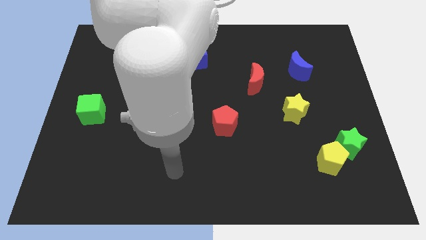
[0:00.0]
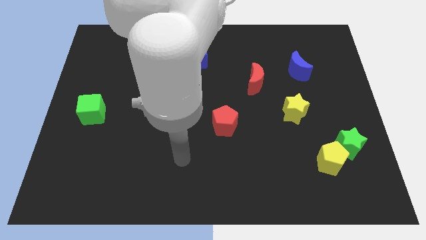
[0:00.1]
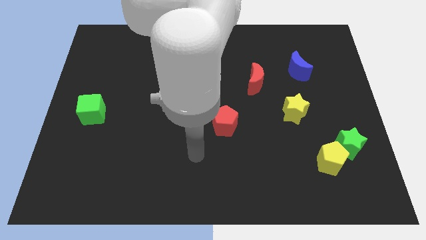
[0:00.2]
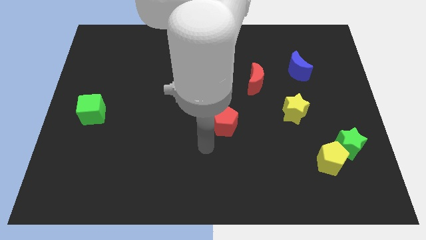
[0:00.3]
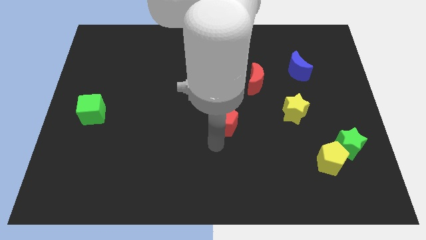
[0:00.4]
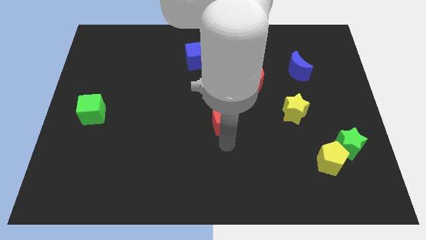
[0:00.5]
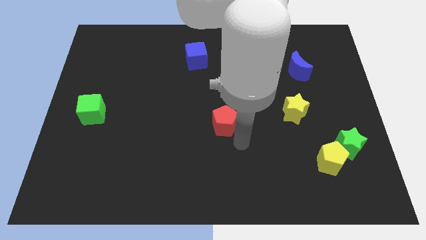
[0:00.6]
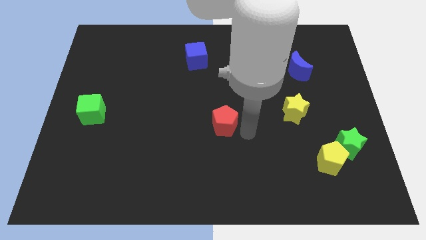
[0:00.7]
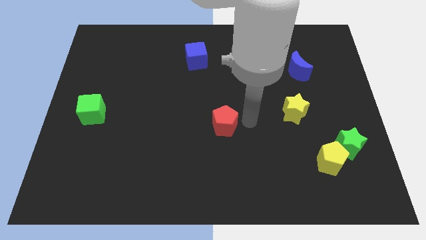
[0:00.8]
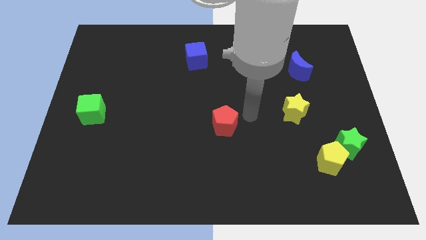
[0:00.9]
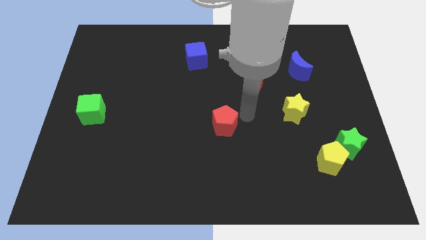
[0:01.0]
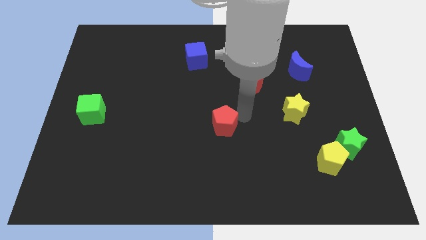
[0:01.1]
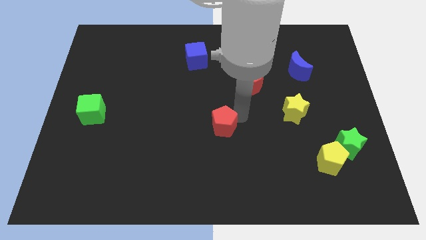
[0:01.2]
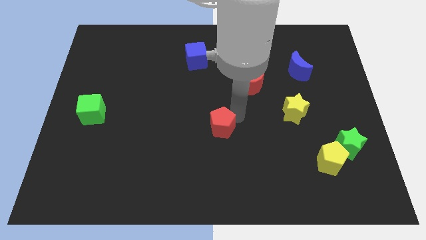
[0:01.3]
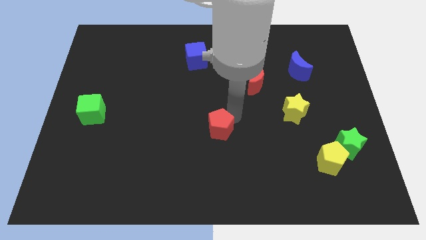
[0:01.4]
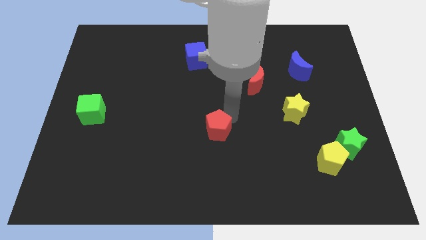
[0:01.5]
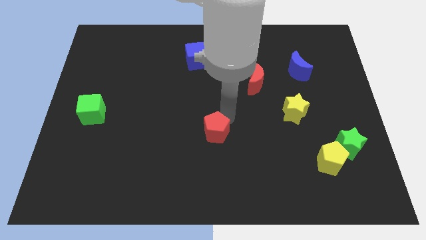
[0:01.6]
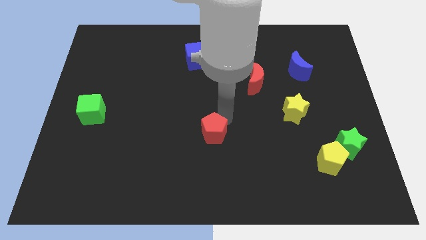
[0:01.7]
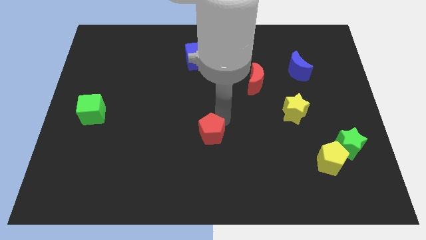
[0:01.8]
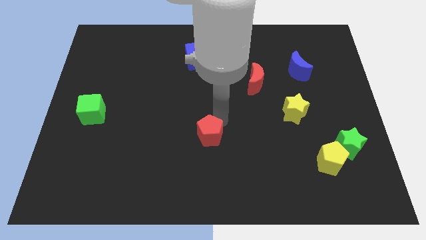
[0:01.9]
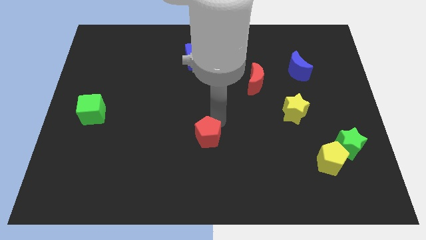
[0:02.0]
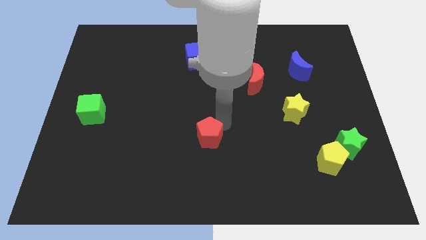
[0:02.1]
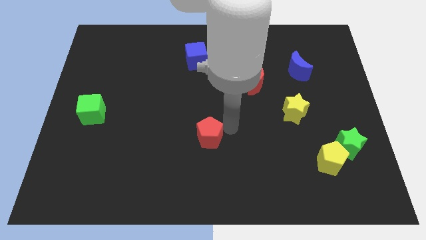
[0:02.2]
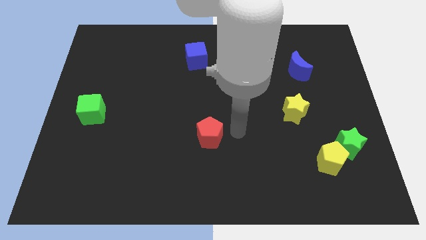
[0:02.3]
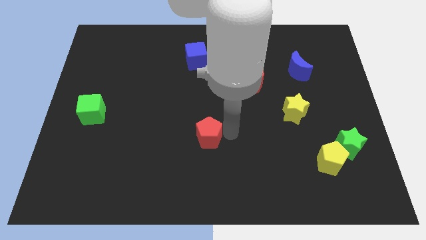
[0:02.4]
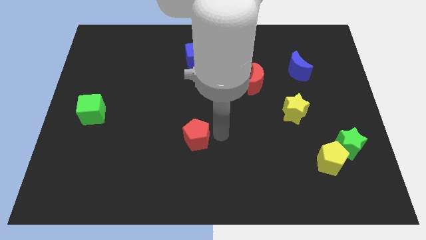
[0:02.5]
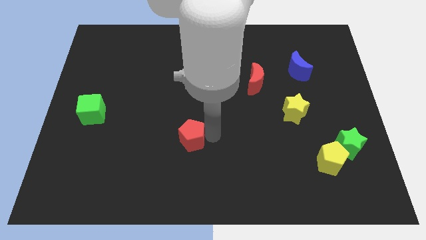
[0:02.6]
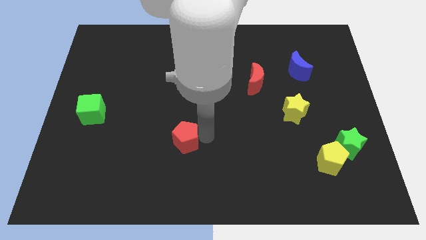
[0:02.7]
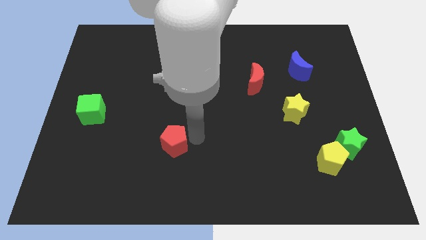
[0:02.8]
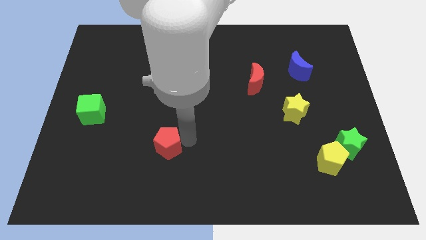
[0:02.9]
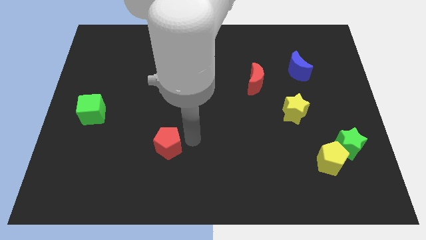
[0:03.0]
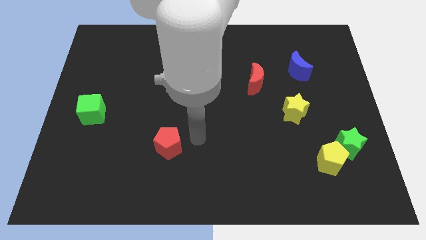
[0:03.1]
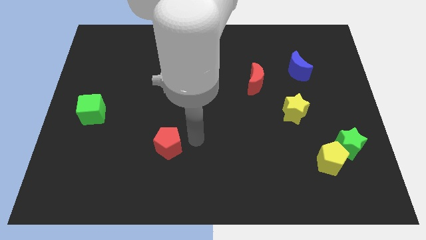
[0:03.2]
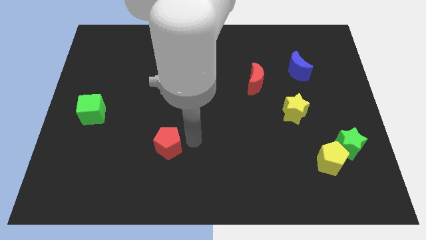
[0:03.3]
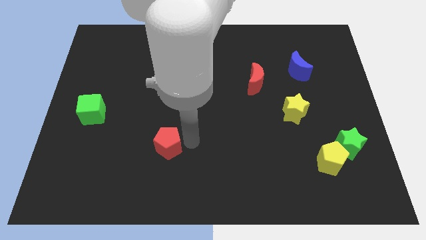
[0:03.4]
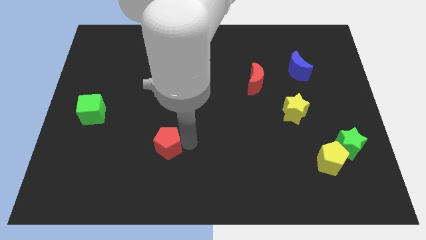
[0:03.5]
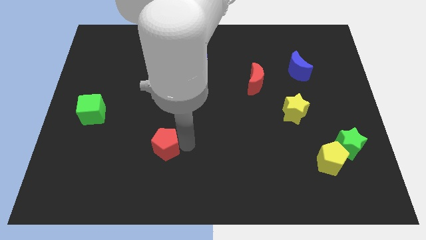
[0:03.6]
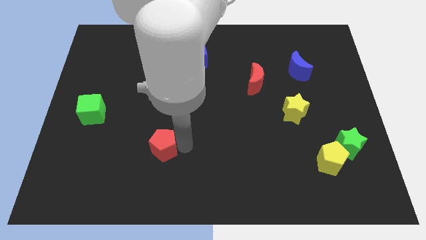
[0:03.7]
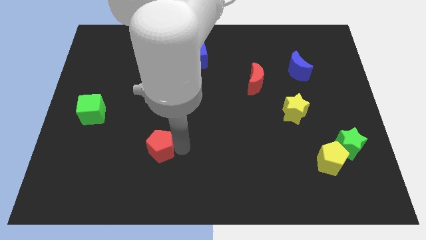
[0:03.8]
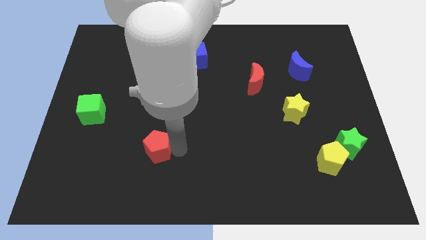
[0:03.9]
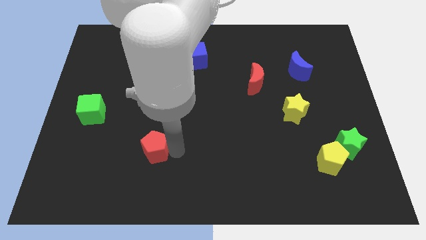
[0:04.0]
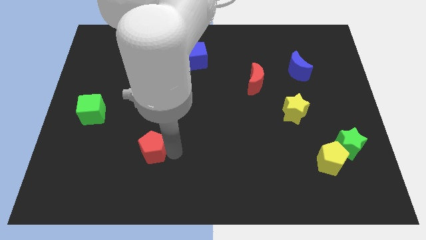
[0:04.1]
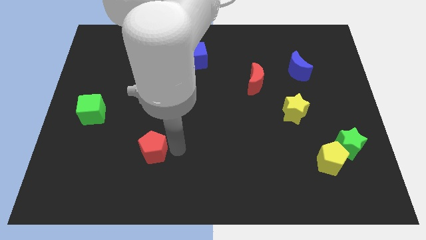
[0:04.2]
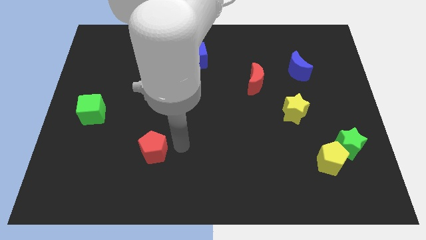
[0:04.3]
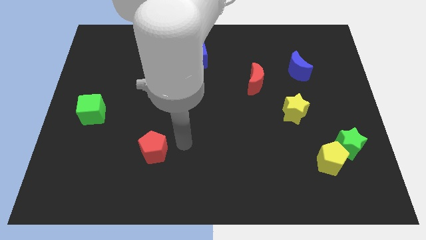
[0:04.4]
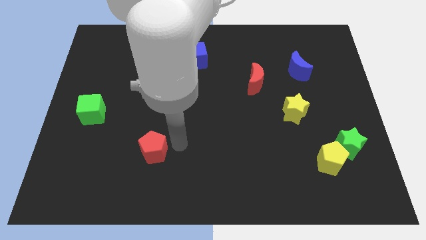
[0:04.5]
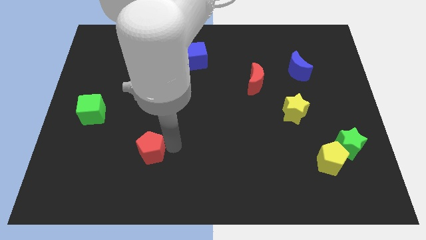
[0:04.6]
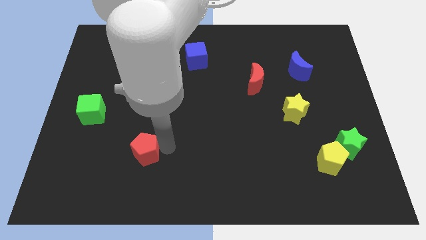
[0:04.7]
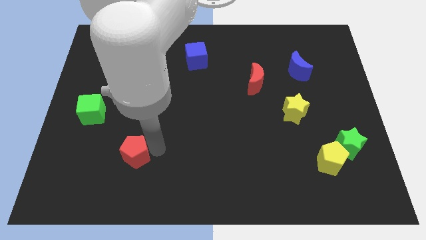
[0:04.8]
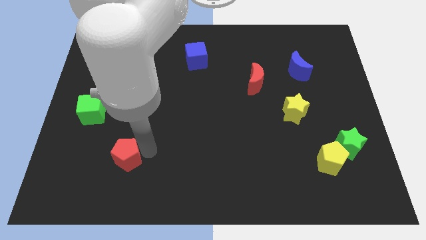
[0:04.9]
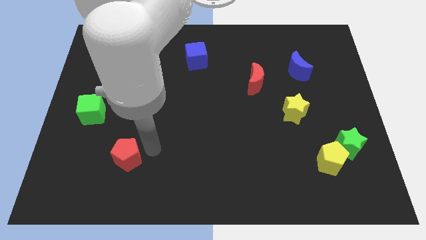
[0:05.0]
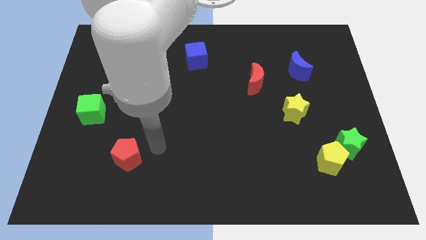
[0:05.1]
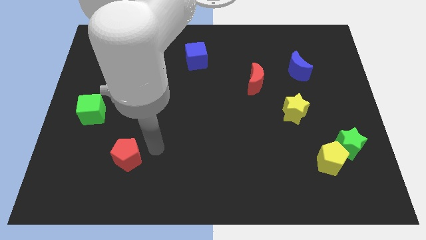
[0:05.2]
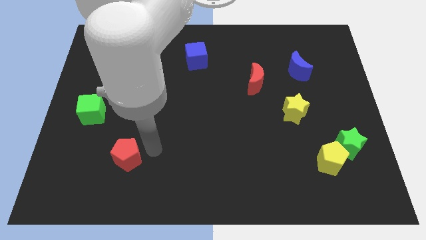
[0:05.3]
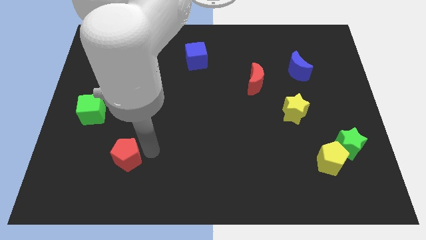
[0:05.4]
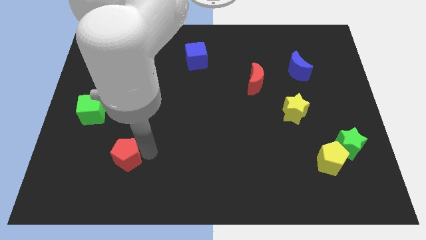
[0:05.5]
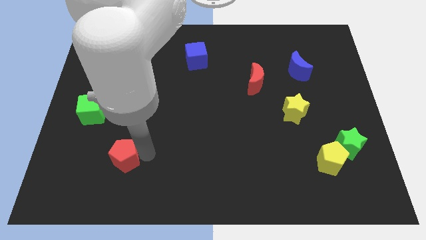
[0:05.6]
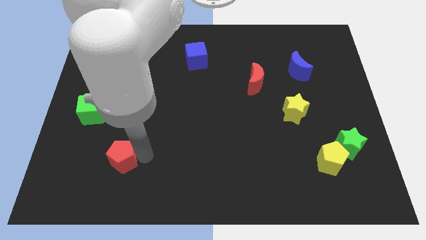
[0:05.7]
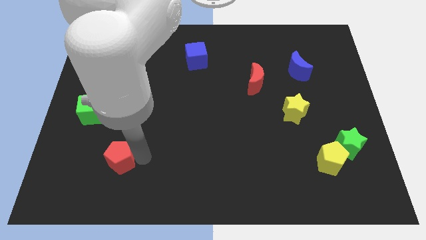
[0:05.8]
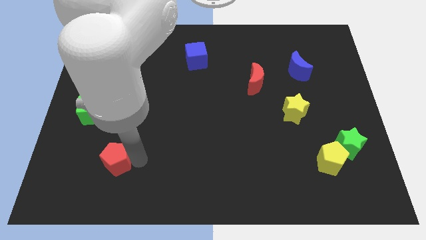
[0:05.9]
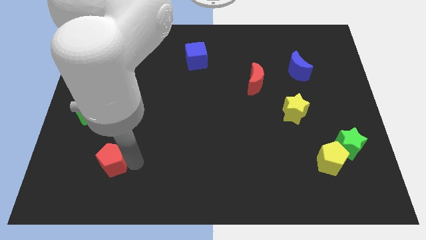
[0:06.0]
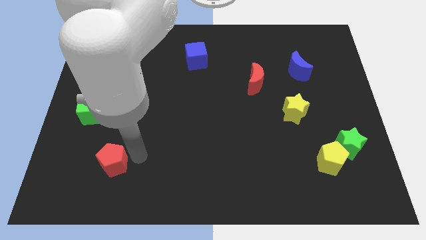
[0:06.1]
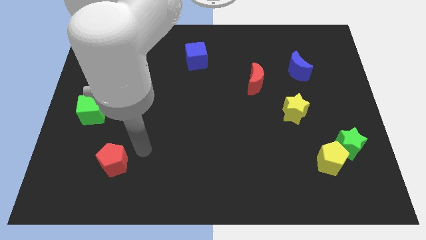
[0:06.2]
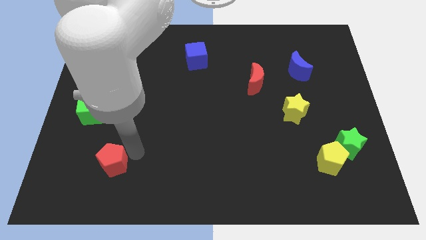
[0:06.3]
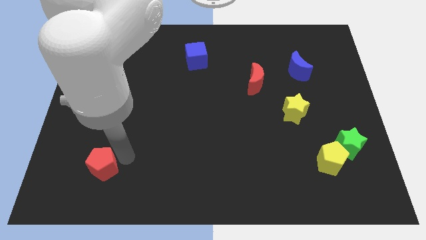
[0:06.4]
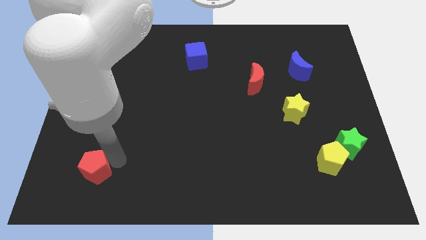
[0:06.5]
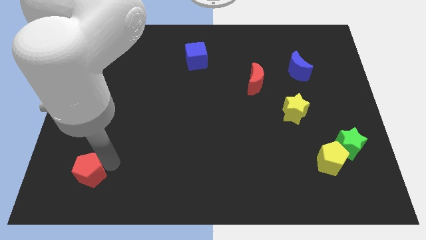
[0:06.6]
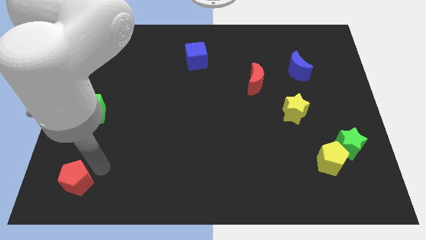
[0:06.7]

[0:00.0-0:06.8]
move the red pentagon to the bottom left of the board

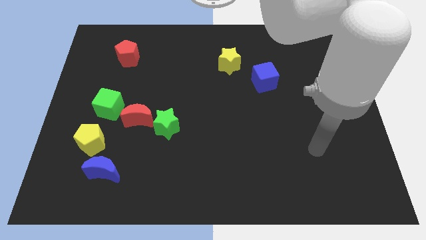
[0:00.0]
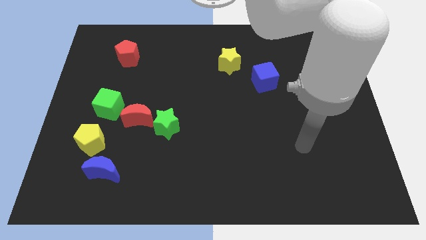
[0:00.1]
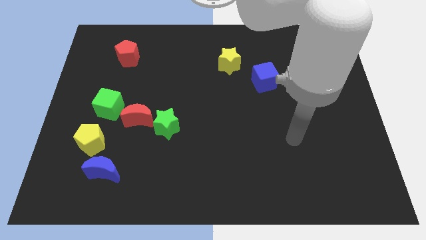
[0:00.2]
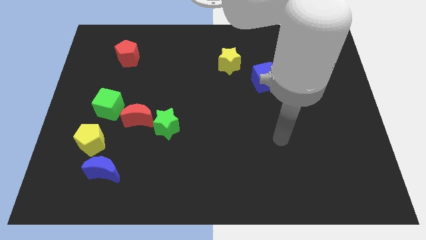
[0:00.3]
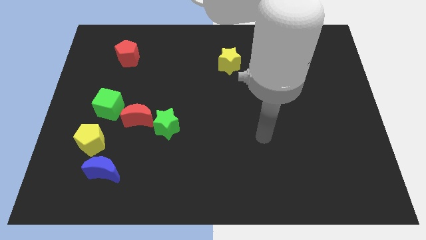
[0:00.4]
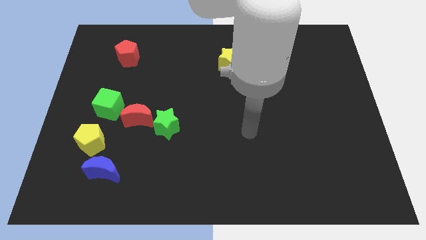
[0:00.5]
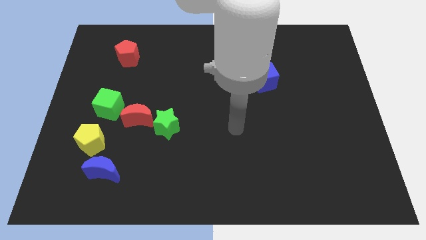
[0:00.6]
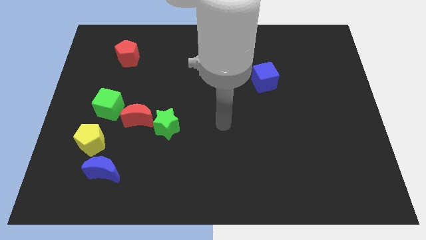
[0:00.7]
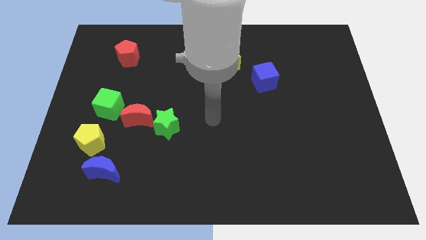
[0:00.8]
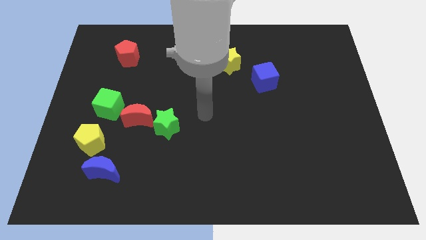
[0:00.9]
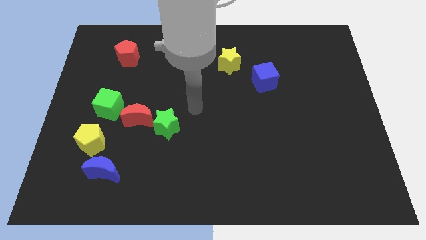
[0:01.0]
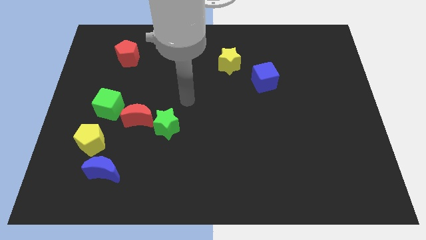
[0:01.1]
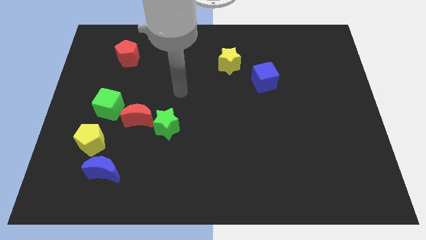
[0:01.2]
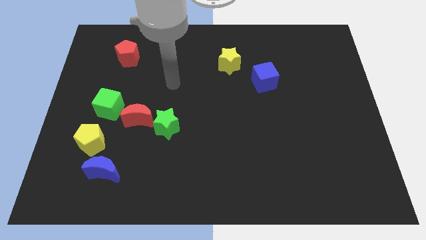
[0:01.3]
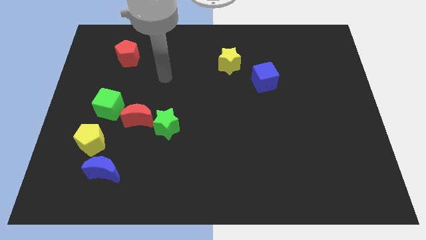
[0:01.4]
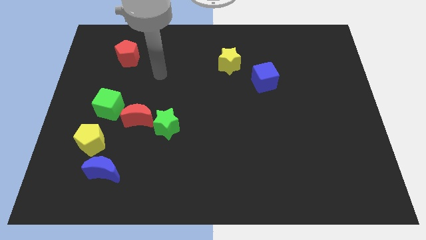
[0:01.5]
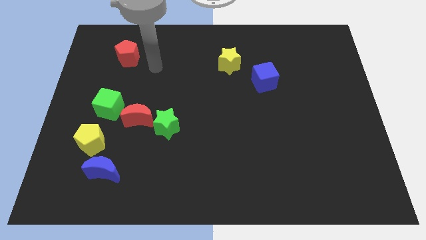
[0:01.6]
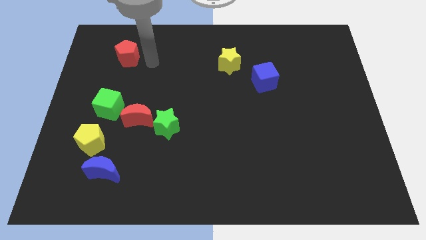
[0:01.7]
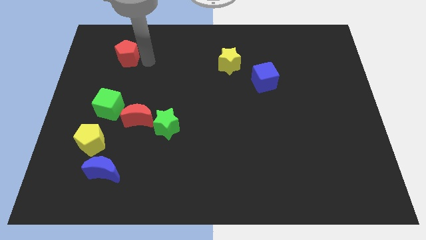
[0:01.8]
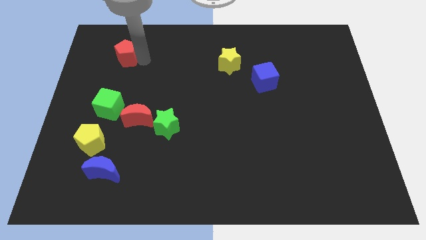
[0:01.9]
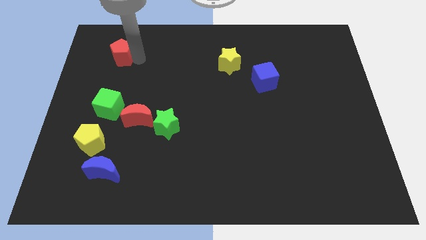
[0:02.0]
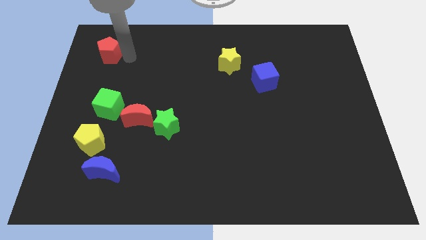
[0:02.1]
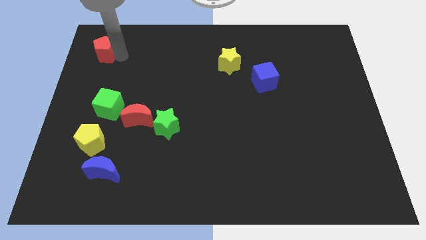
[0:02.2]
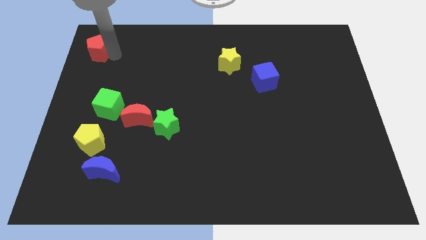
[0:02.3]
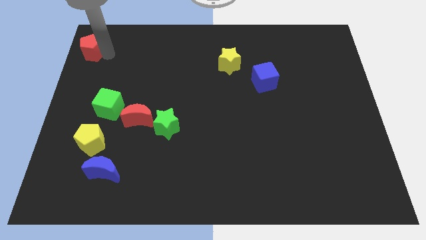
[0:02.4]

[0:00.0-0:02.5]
push the red pentagon to the top left
